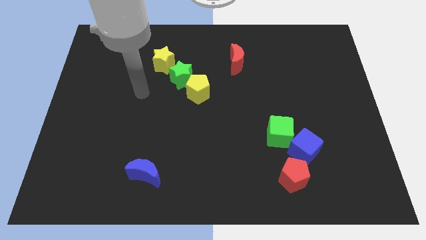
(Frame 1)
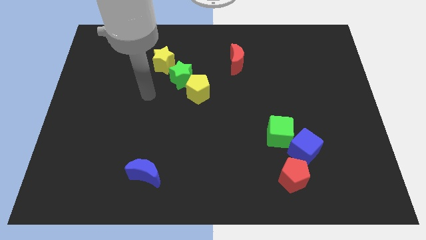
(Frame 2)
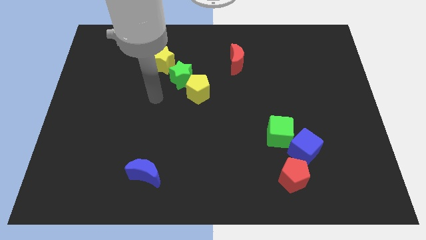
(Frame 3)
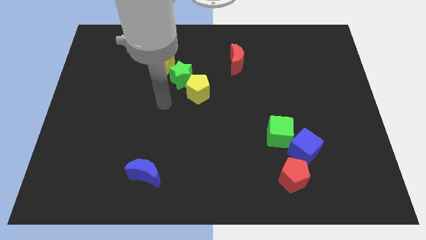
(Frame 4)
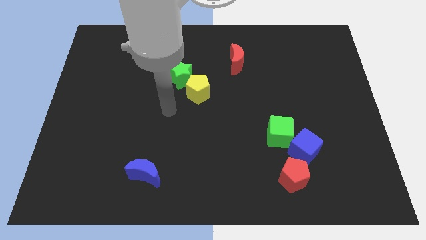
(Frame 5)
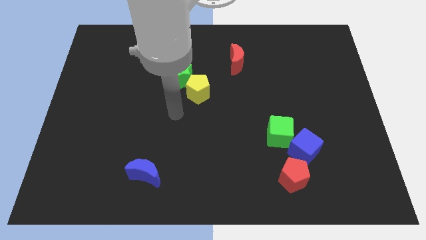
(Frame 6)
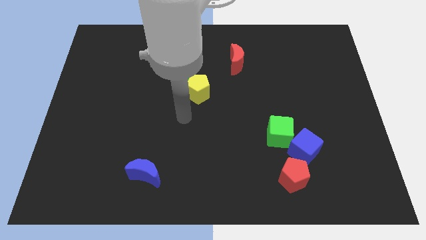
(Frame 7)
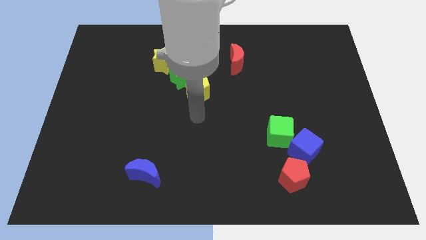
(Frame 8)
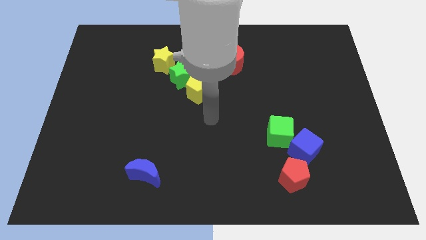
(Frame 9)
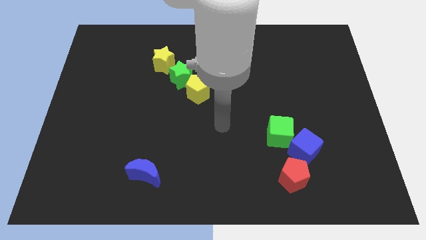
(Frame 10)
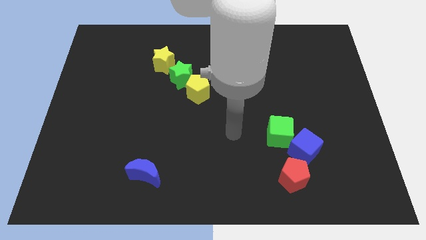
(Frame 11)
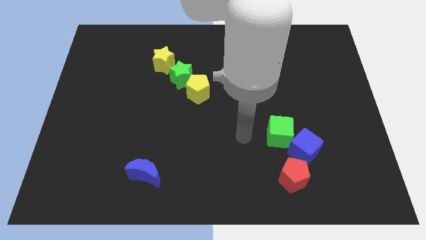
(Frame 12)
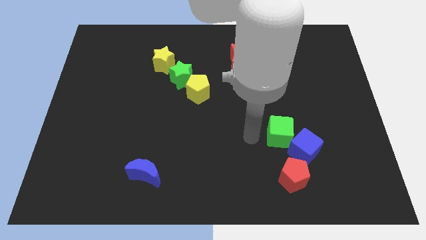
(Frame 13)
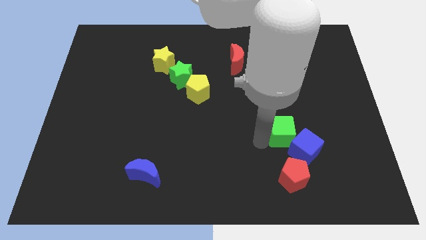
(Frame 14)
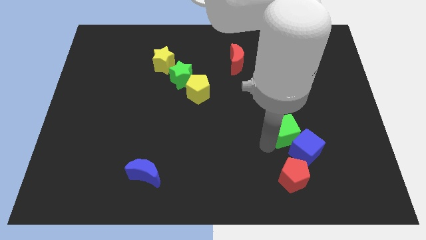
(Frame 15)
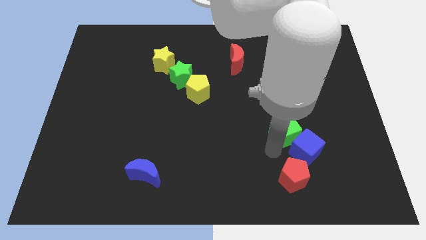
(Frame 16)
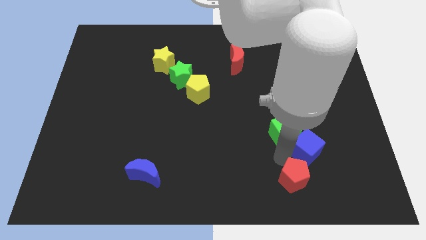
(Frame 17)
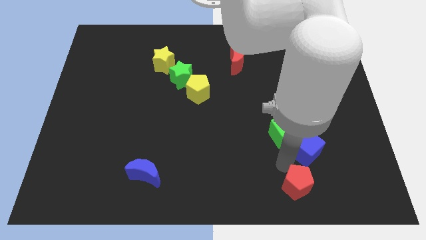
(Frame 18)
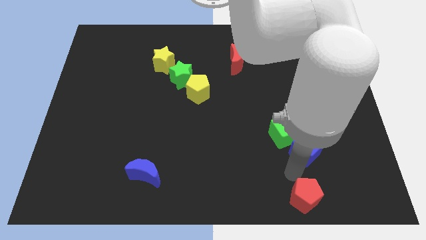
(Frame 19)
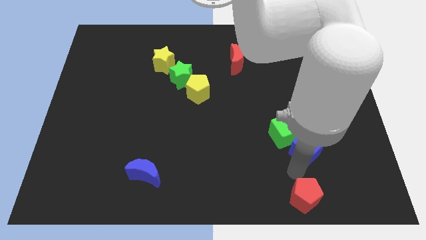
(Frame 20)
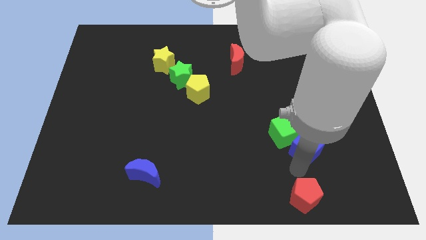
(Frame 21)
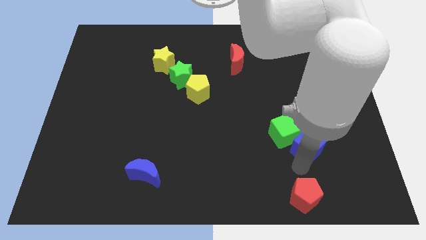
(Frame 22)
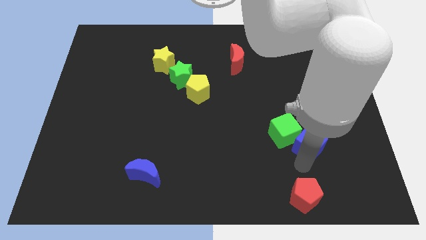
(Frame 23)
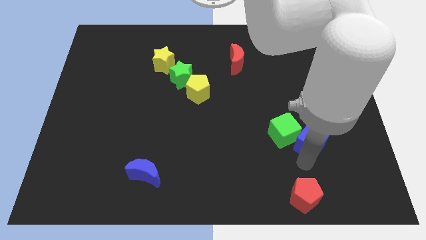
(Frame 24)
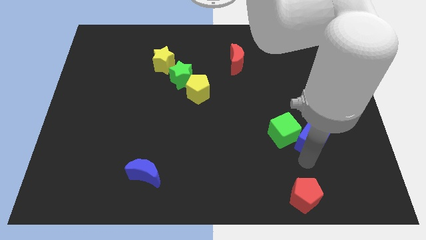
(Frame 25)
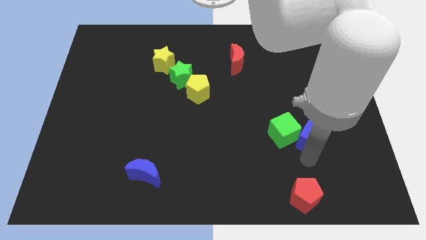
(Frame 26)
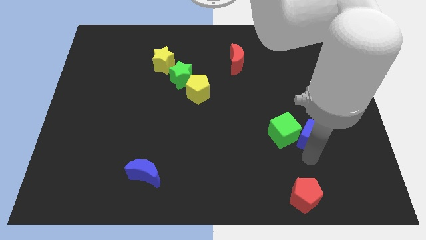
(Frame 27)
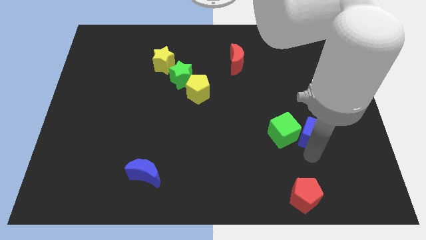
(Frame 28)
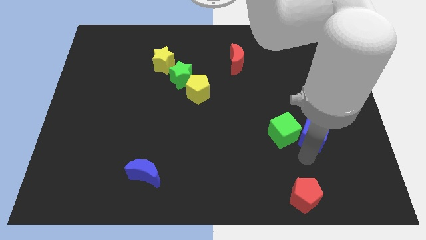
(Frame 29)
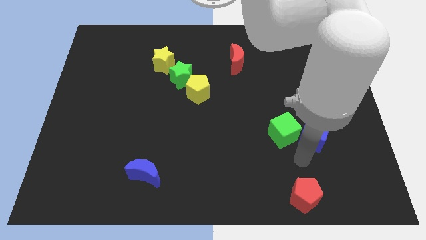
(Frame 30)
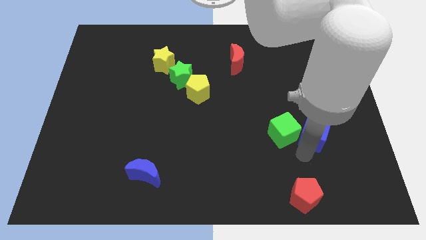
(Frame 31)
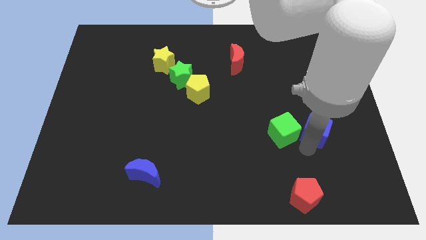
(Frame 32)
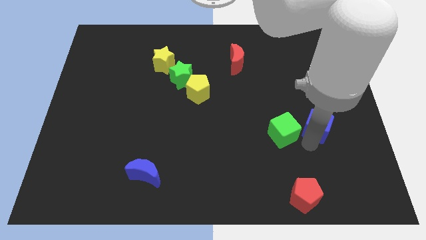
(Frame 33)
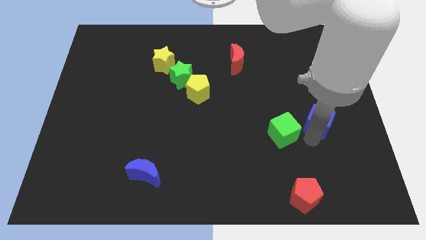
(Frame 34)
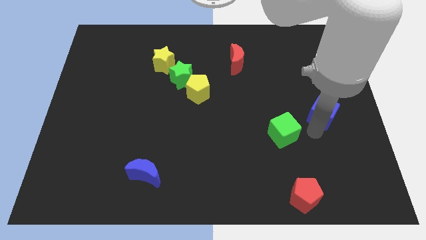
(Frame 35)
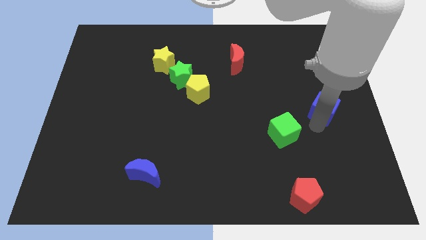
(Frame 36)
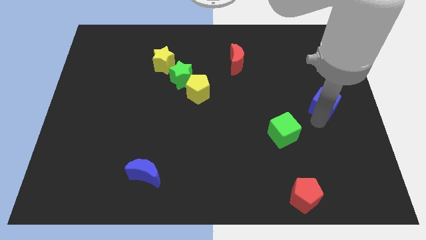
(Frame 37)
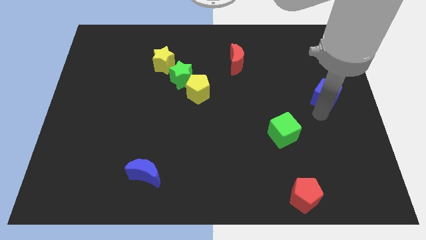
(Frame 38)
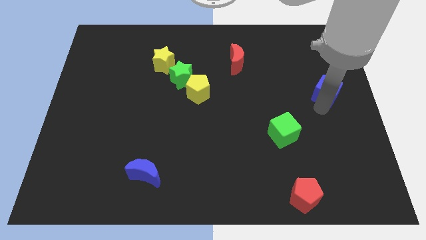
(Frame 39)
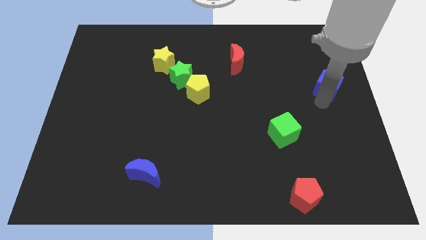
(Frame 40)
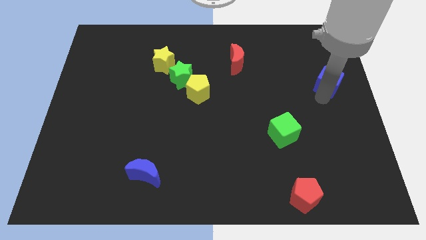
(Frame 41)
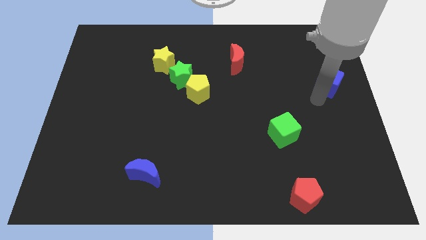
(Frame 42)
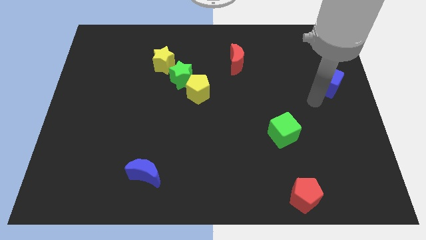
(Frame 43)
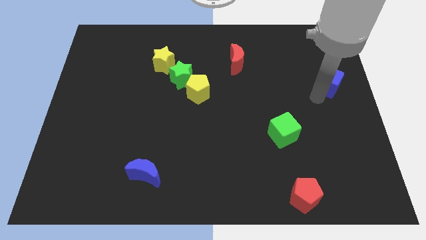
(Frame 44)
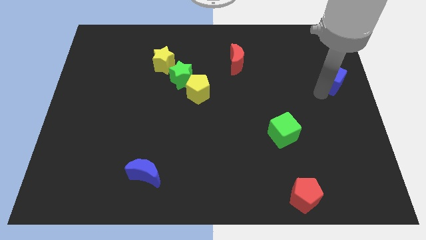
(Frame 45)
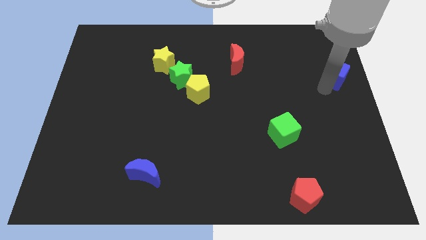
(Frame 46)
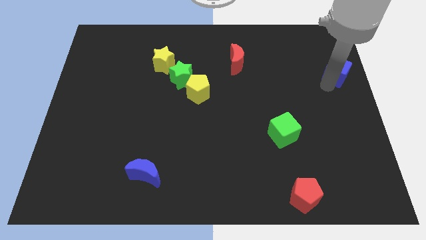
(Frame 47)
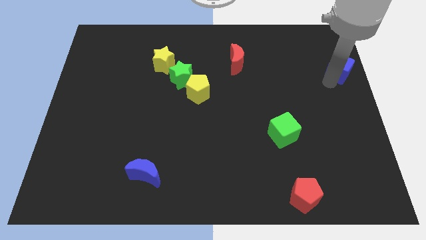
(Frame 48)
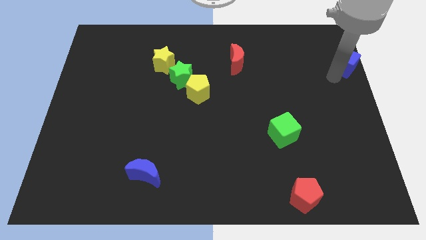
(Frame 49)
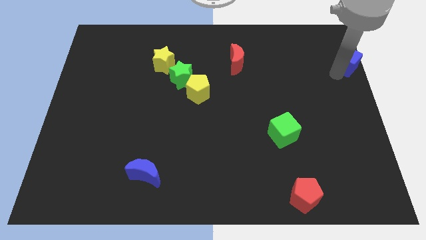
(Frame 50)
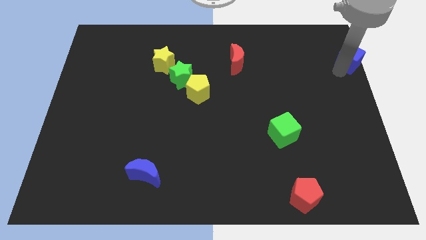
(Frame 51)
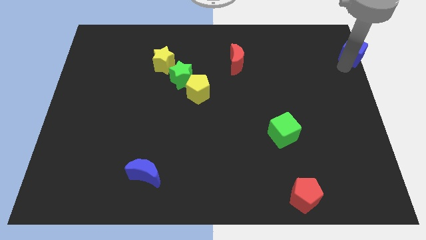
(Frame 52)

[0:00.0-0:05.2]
put the blue cube to the upper right corner

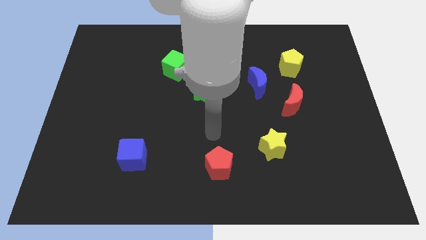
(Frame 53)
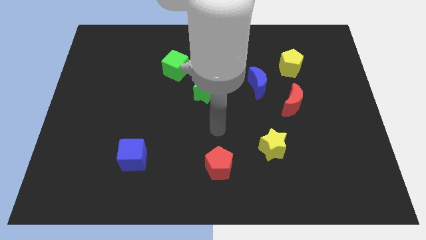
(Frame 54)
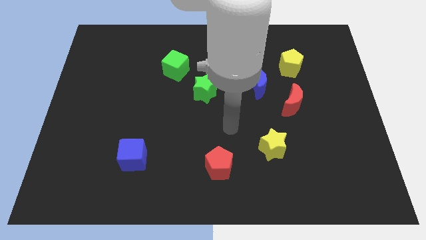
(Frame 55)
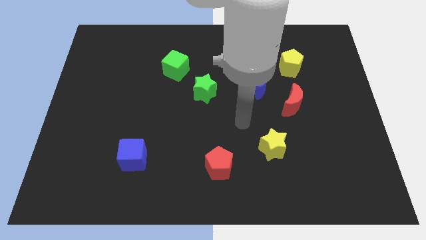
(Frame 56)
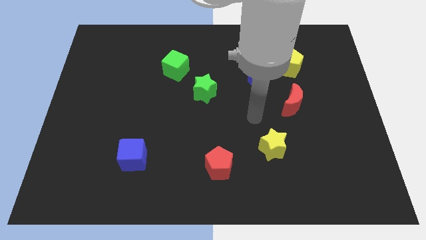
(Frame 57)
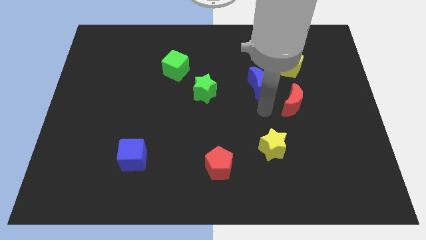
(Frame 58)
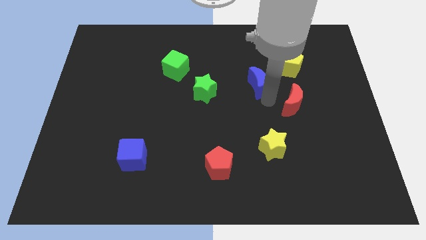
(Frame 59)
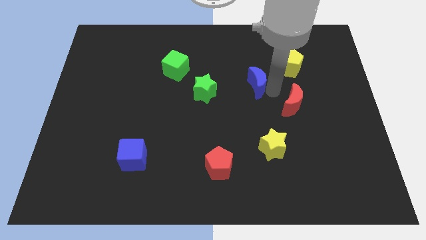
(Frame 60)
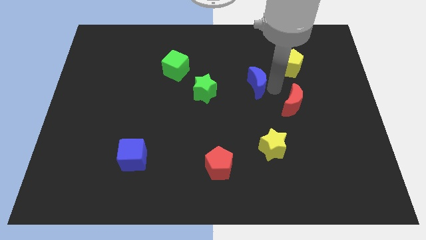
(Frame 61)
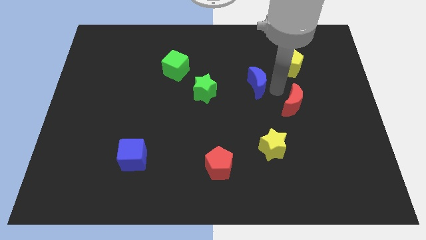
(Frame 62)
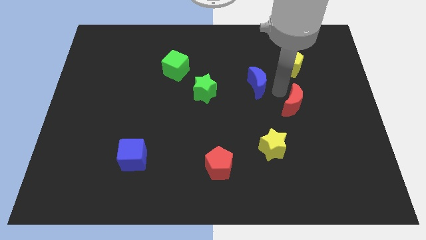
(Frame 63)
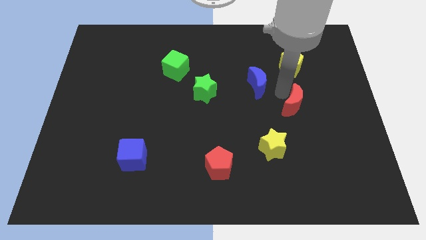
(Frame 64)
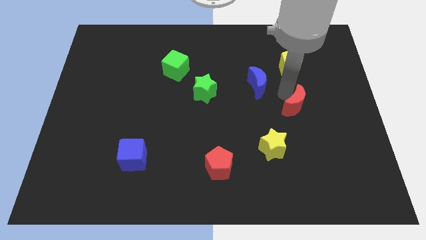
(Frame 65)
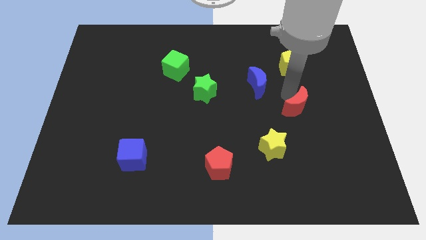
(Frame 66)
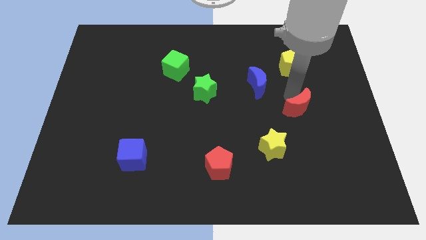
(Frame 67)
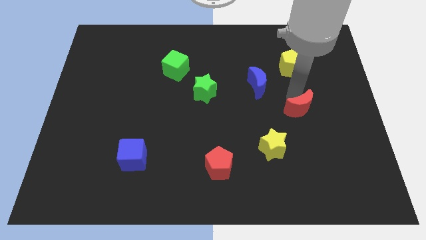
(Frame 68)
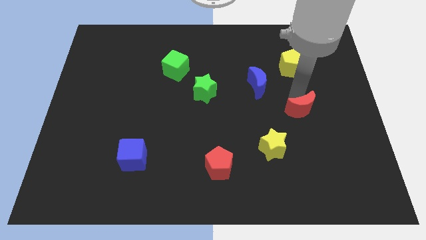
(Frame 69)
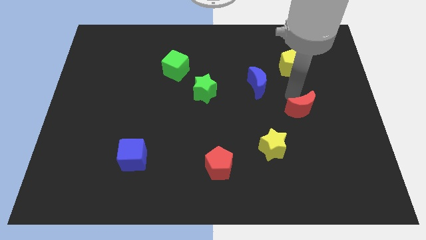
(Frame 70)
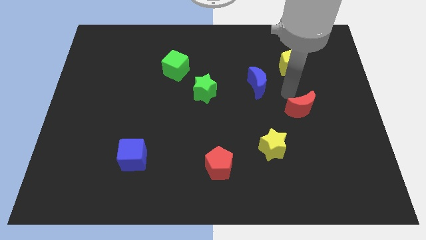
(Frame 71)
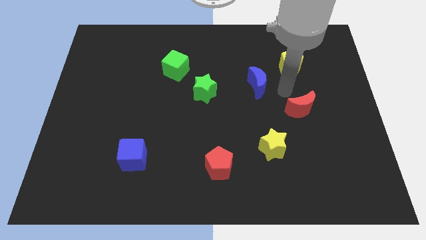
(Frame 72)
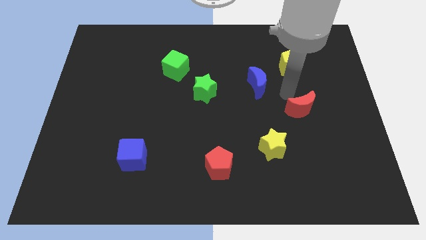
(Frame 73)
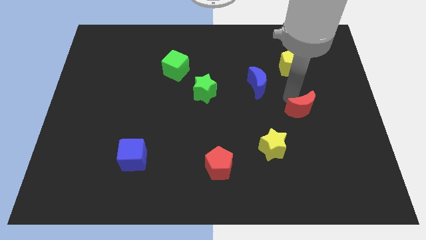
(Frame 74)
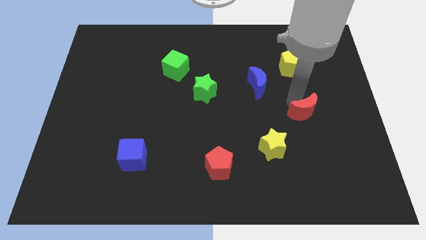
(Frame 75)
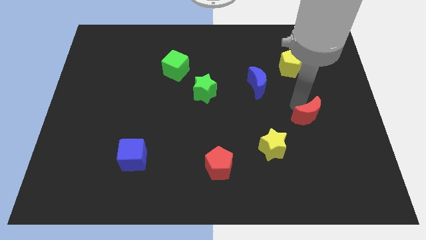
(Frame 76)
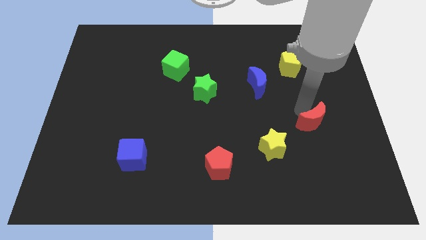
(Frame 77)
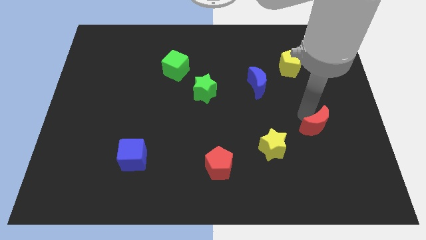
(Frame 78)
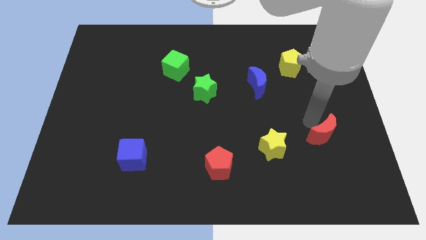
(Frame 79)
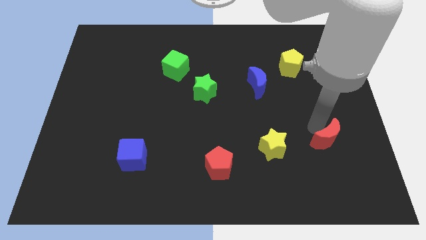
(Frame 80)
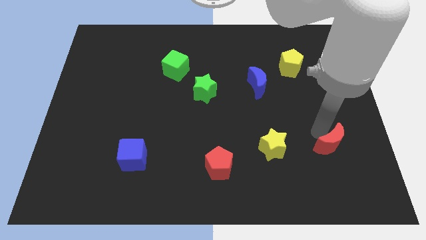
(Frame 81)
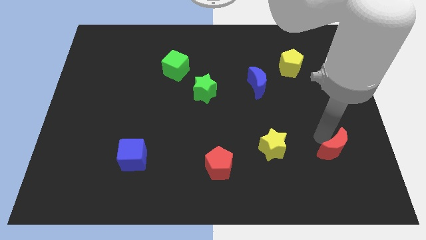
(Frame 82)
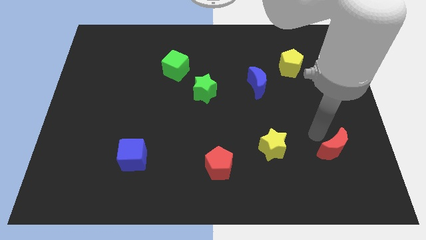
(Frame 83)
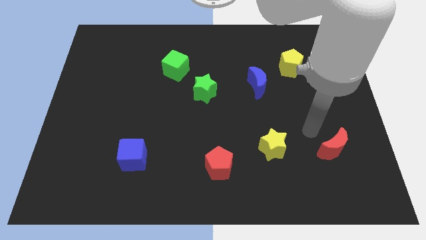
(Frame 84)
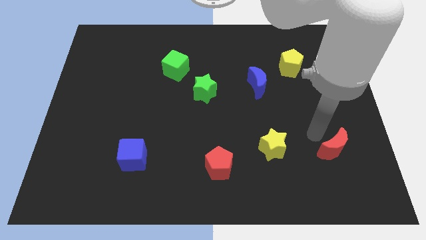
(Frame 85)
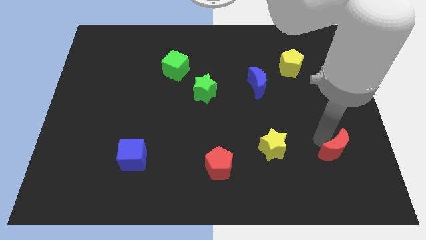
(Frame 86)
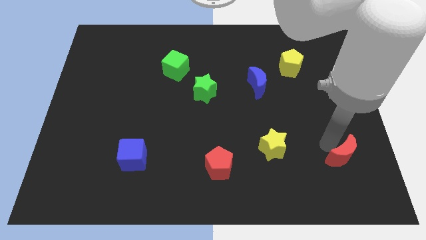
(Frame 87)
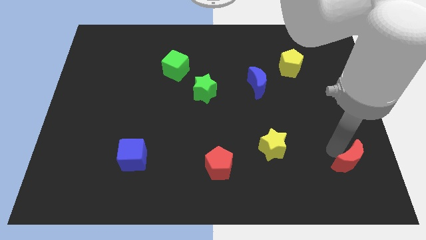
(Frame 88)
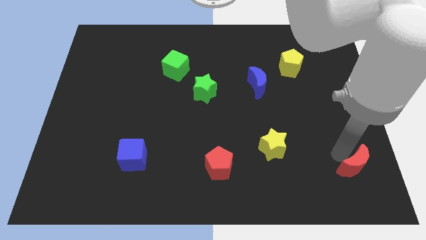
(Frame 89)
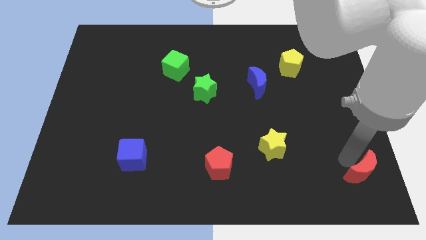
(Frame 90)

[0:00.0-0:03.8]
put the red moon to the lower right corner
